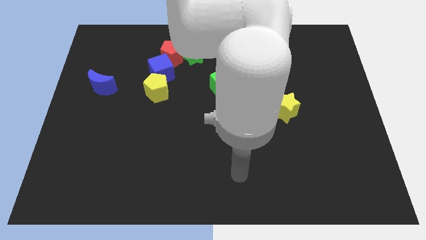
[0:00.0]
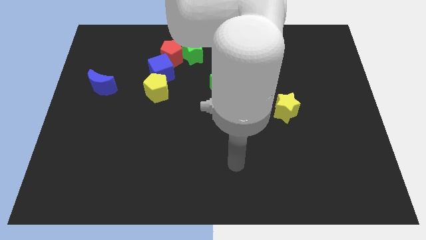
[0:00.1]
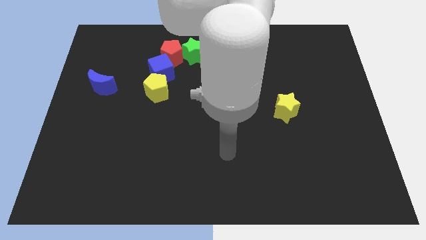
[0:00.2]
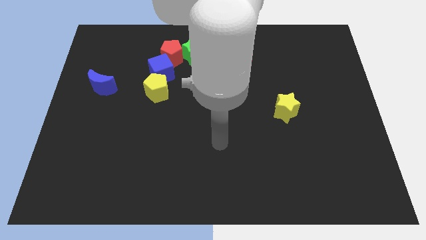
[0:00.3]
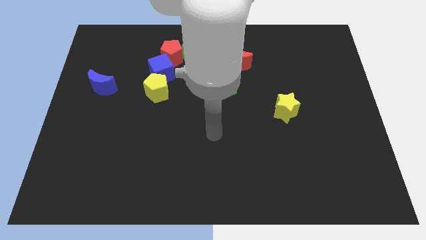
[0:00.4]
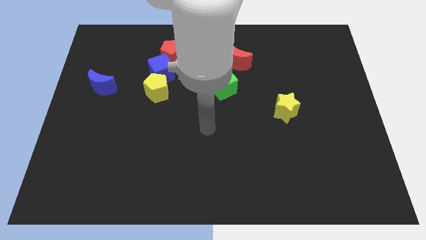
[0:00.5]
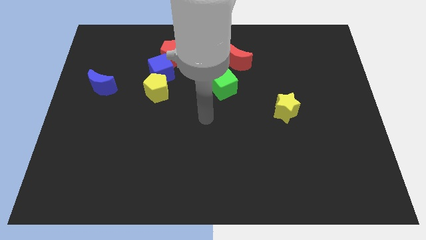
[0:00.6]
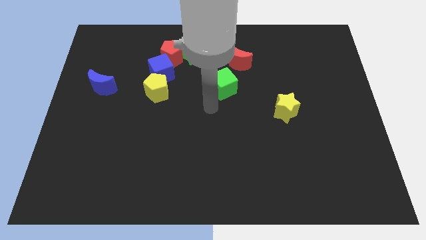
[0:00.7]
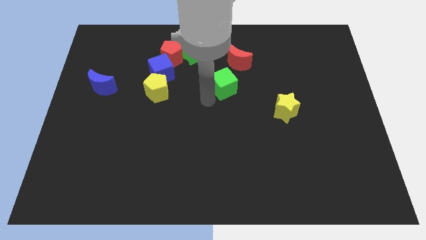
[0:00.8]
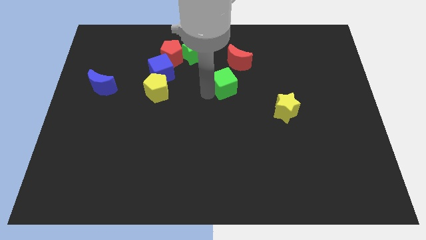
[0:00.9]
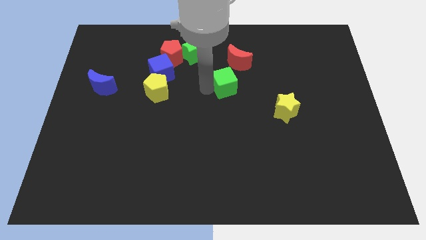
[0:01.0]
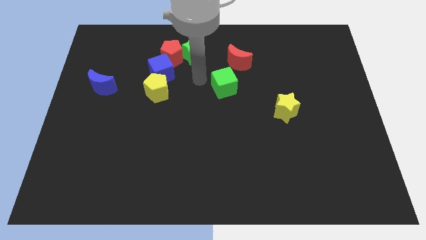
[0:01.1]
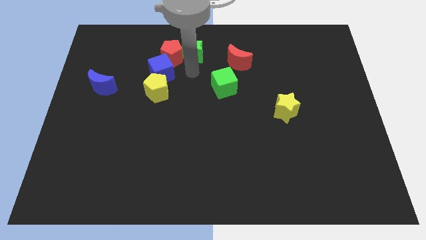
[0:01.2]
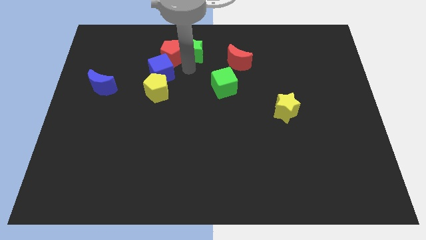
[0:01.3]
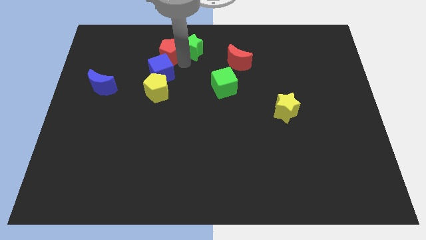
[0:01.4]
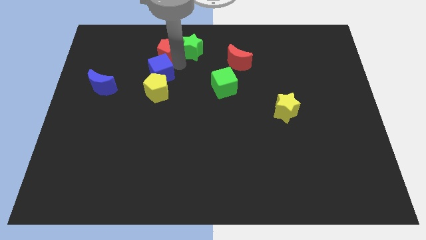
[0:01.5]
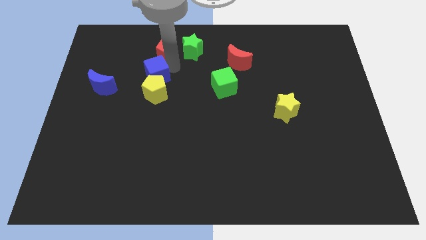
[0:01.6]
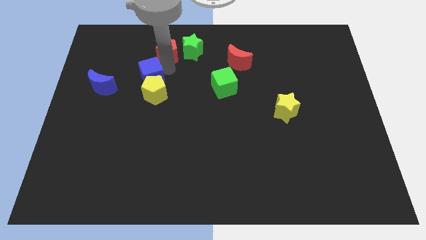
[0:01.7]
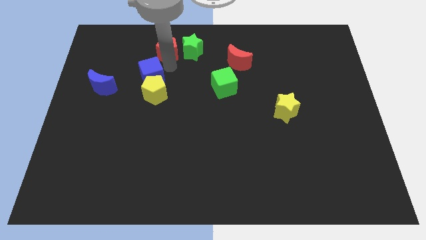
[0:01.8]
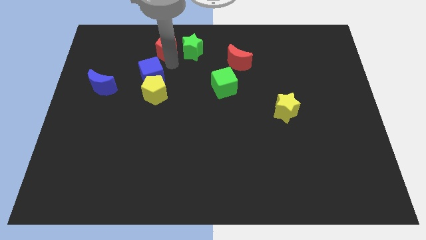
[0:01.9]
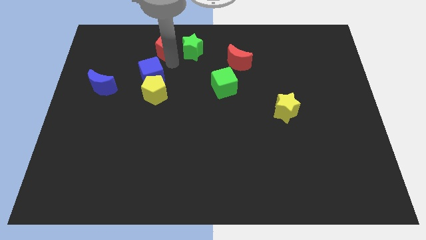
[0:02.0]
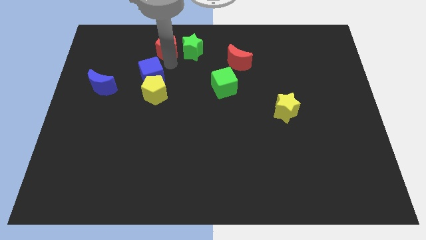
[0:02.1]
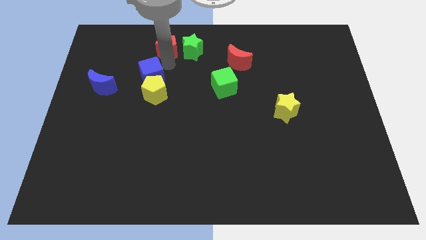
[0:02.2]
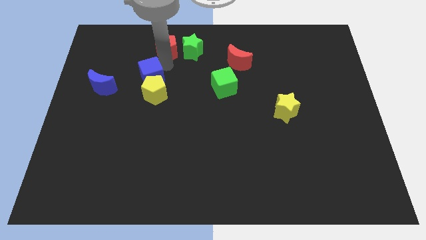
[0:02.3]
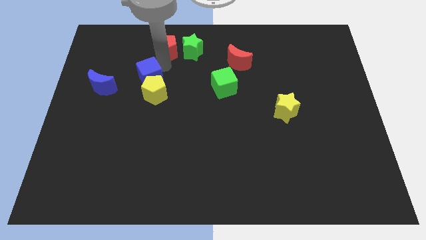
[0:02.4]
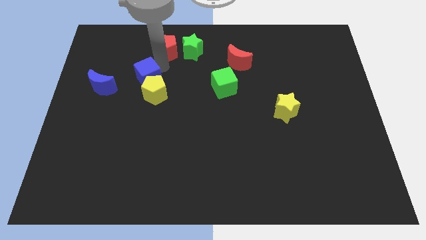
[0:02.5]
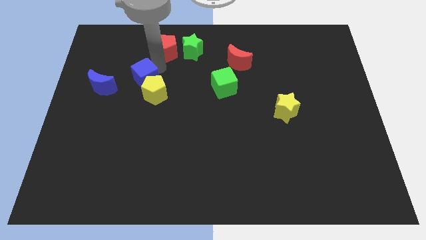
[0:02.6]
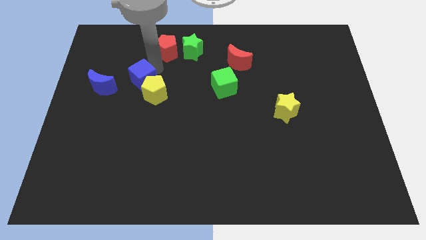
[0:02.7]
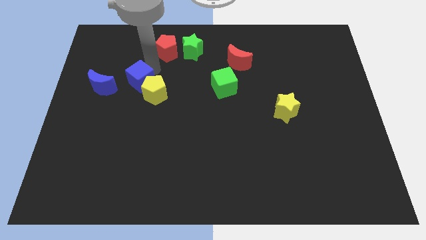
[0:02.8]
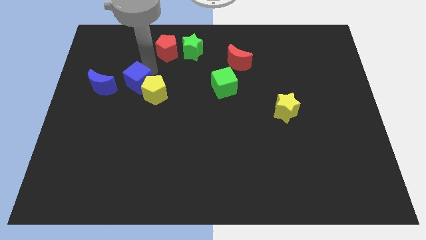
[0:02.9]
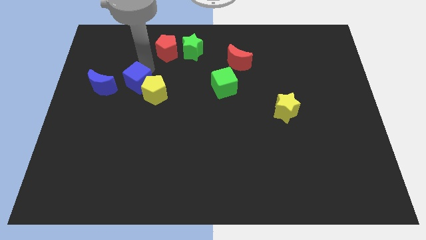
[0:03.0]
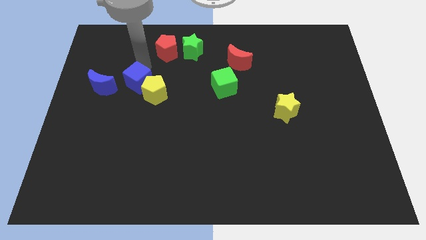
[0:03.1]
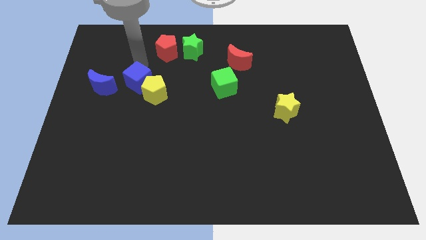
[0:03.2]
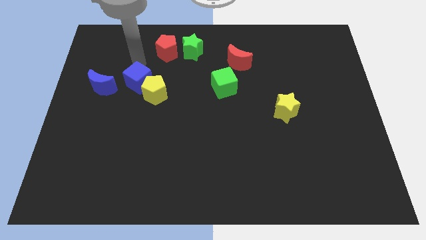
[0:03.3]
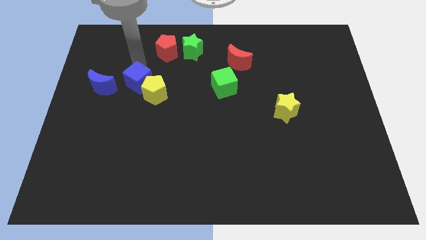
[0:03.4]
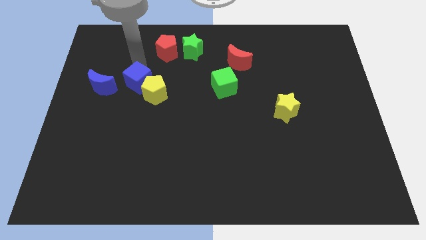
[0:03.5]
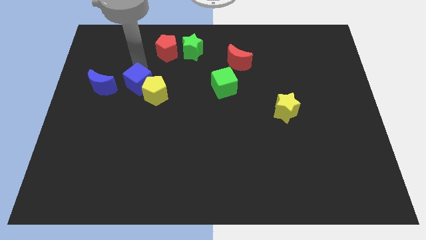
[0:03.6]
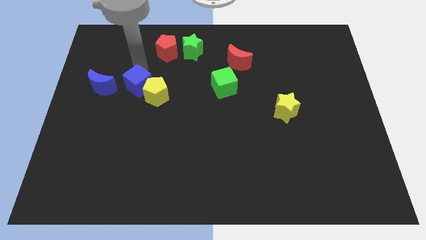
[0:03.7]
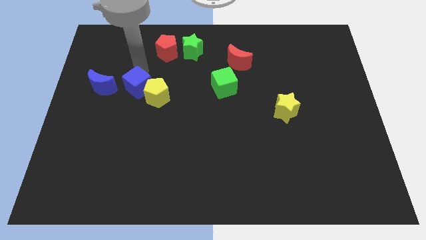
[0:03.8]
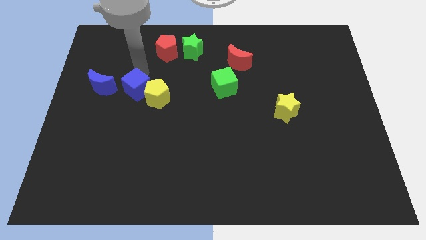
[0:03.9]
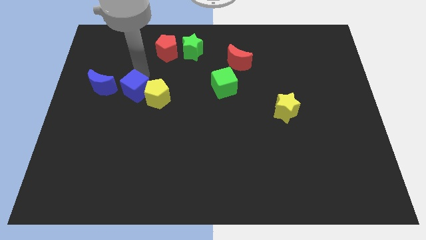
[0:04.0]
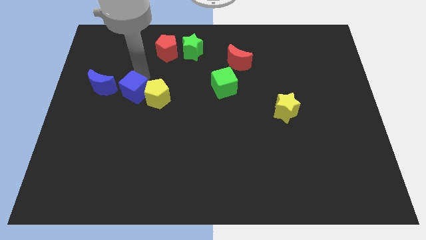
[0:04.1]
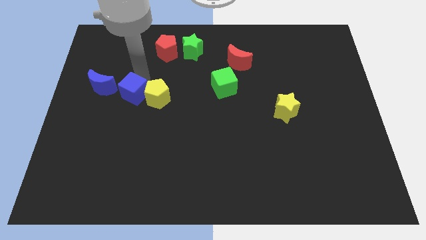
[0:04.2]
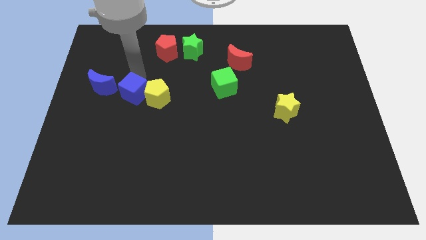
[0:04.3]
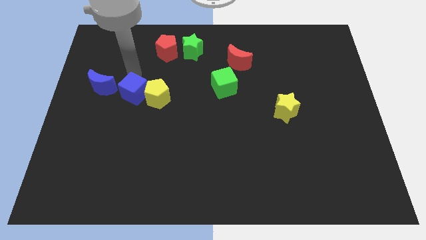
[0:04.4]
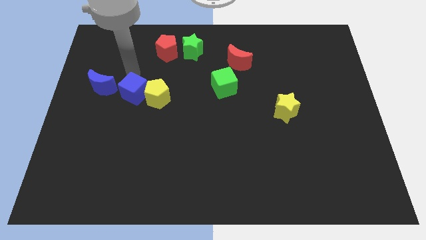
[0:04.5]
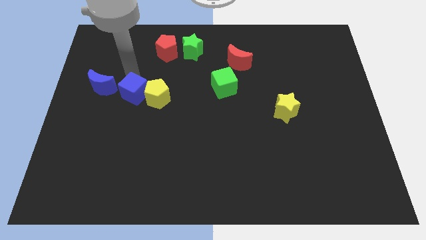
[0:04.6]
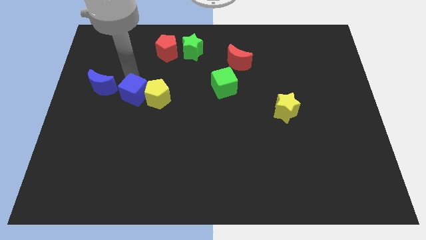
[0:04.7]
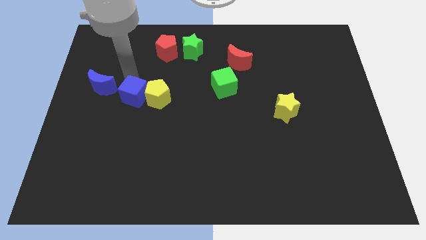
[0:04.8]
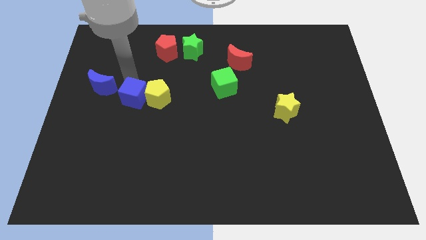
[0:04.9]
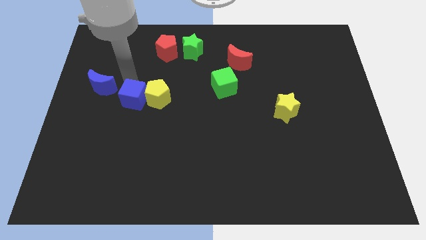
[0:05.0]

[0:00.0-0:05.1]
slide the blue cube down somewhat

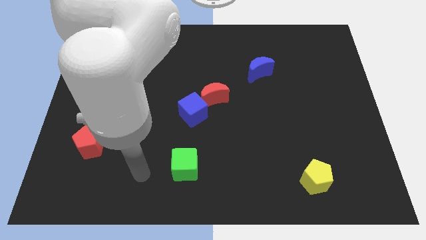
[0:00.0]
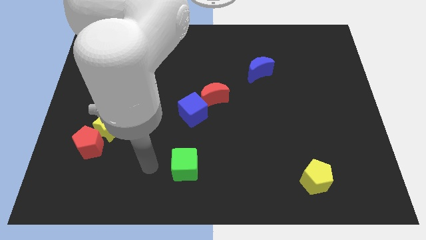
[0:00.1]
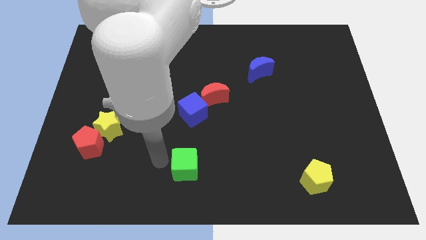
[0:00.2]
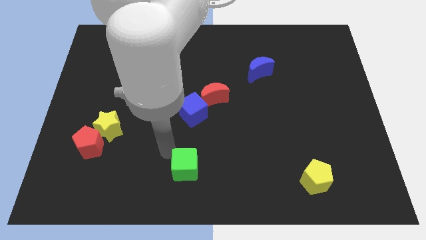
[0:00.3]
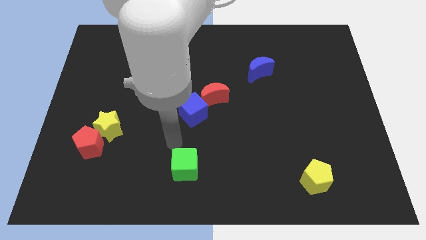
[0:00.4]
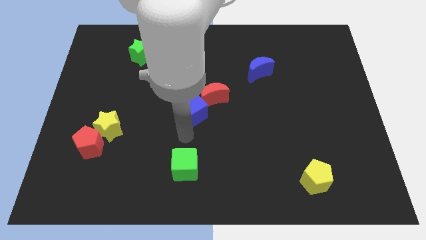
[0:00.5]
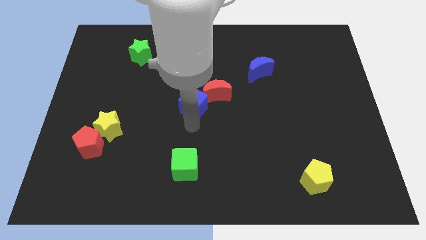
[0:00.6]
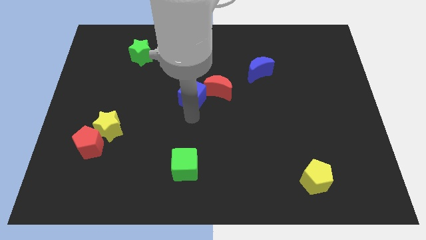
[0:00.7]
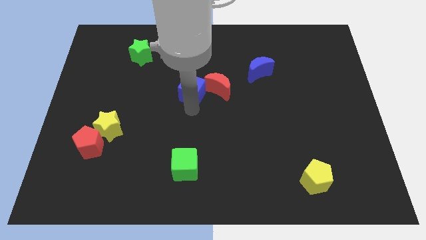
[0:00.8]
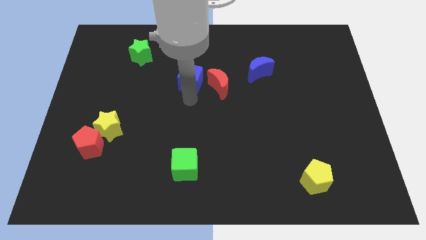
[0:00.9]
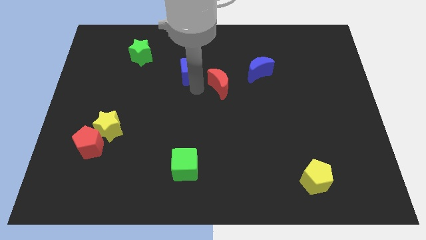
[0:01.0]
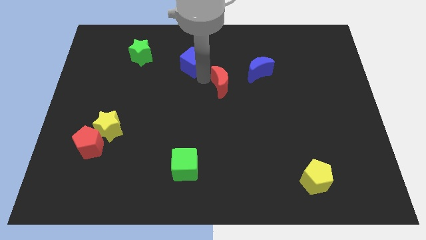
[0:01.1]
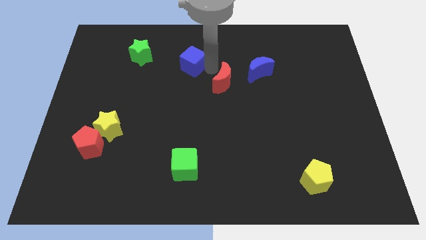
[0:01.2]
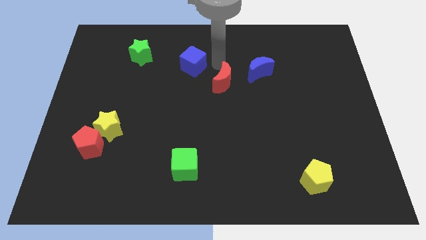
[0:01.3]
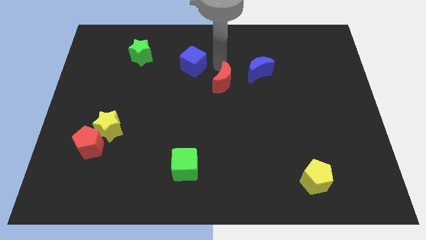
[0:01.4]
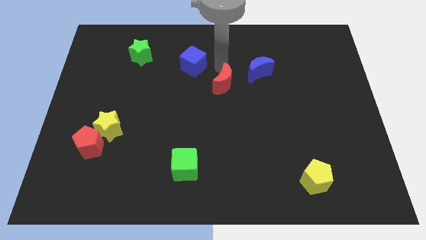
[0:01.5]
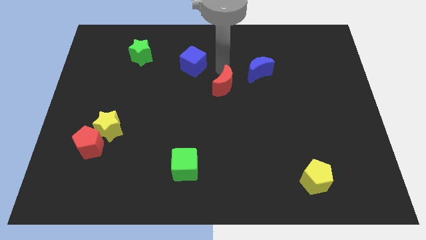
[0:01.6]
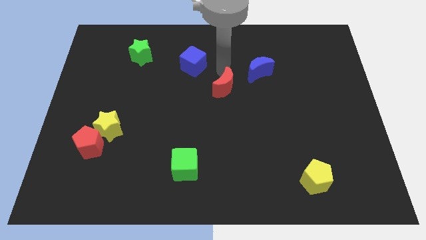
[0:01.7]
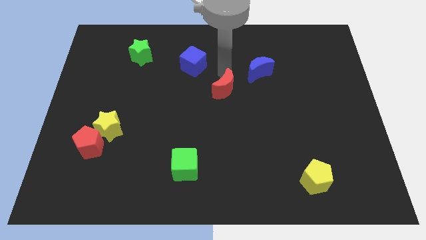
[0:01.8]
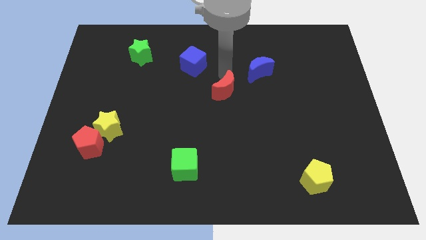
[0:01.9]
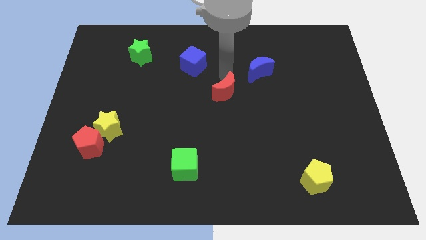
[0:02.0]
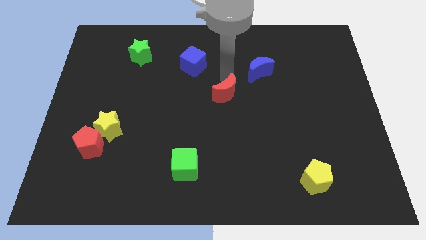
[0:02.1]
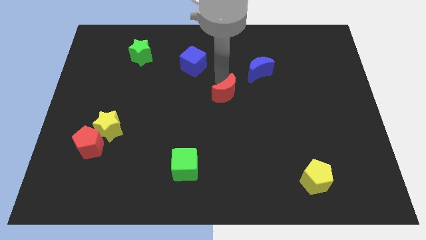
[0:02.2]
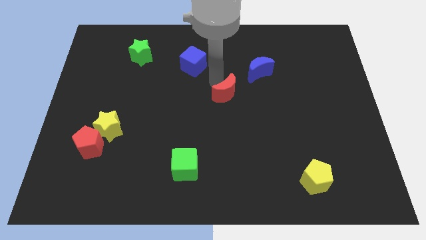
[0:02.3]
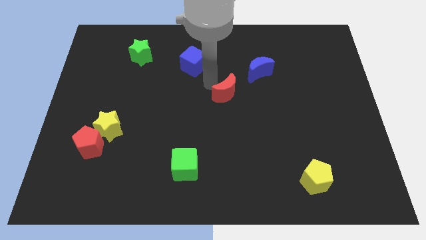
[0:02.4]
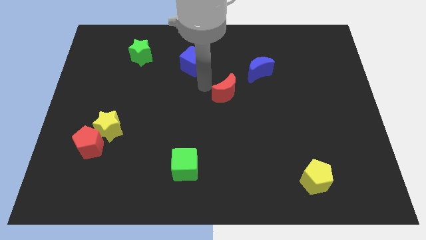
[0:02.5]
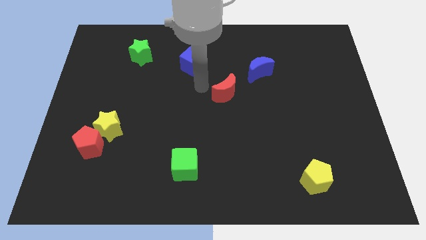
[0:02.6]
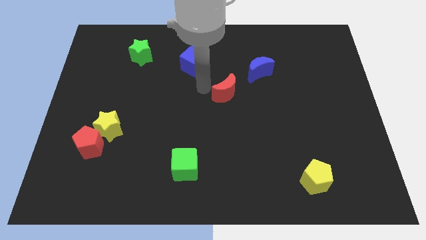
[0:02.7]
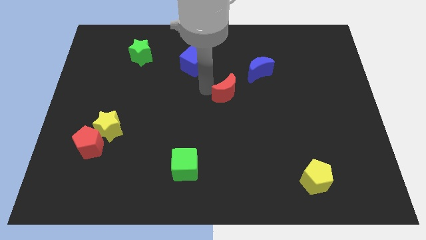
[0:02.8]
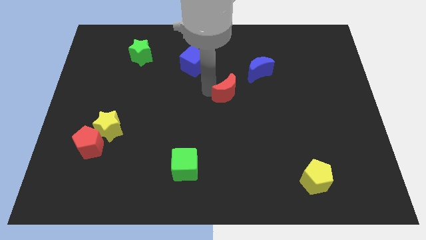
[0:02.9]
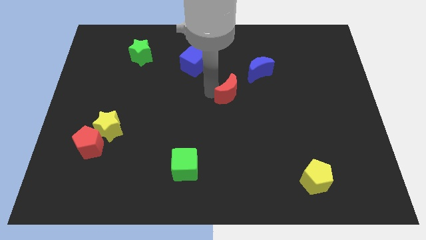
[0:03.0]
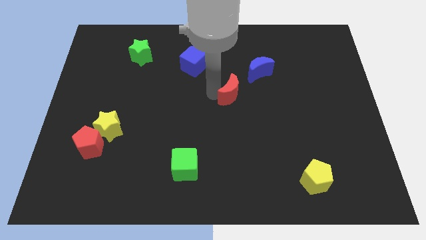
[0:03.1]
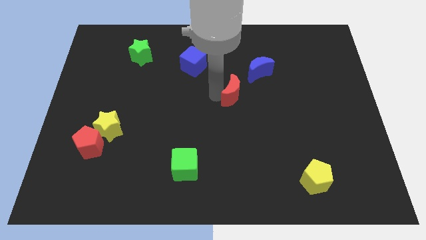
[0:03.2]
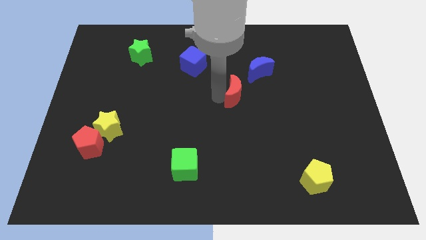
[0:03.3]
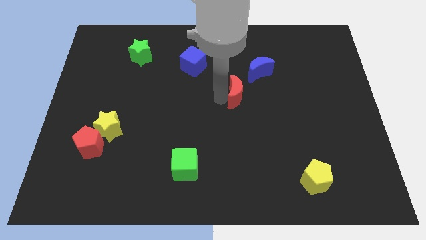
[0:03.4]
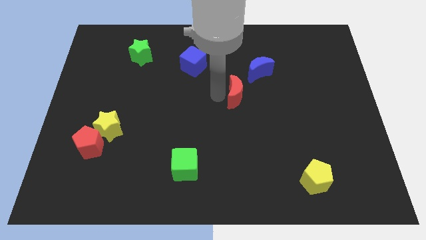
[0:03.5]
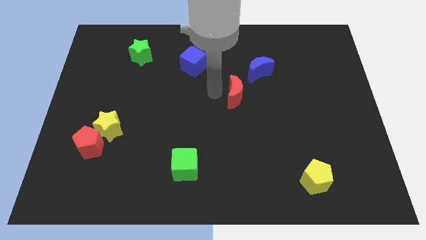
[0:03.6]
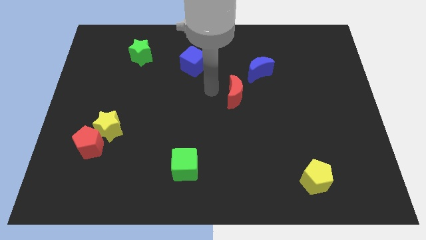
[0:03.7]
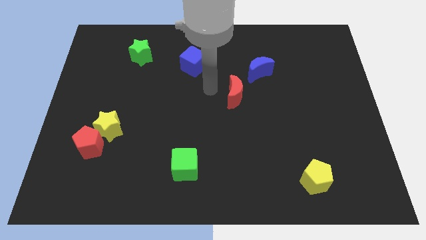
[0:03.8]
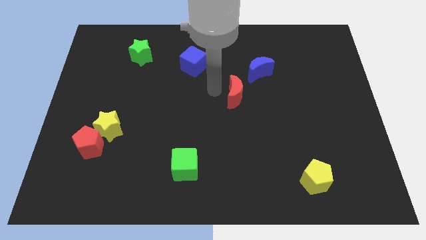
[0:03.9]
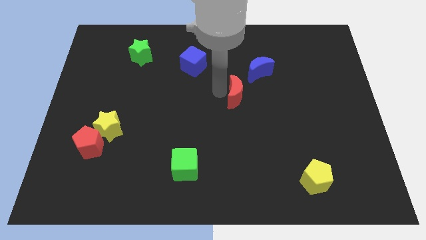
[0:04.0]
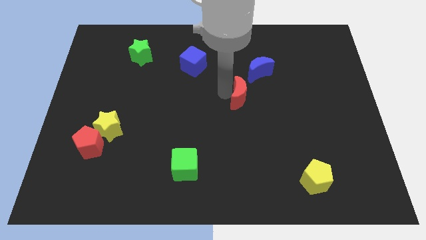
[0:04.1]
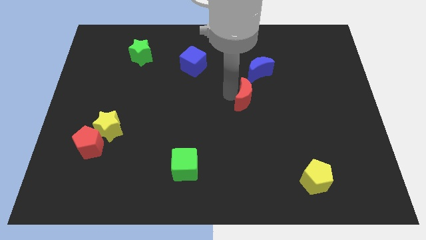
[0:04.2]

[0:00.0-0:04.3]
move the red moon right a little bit
